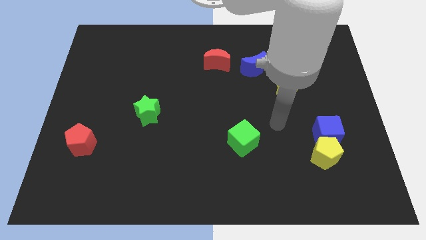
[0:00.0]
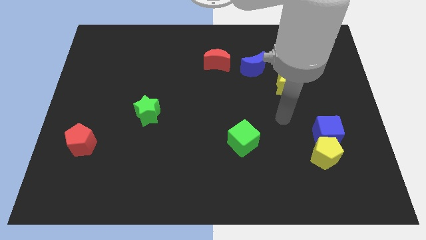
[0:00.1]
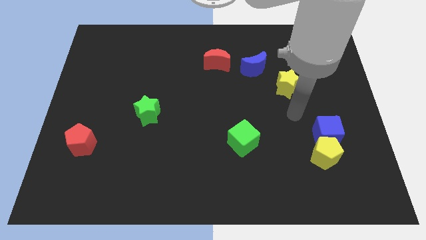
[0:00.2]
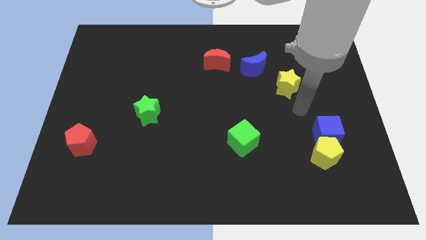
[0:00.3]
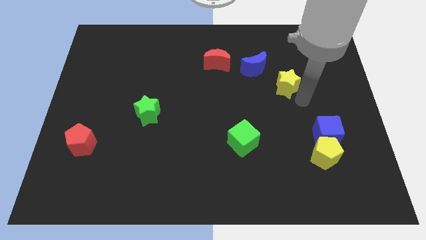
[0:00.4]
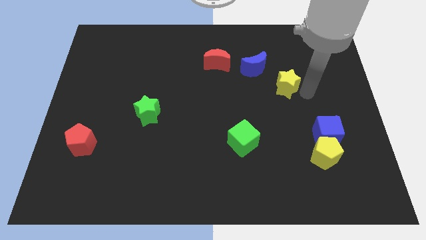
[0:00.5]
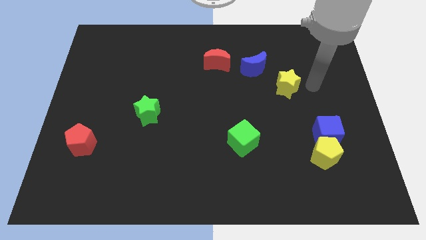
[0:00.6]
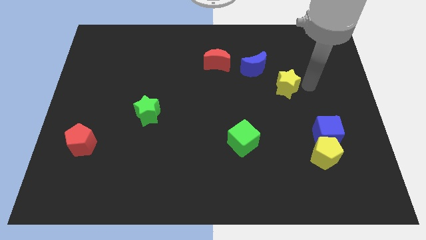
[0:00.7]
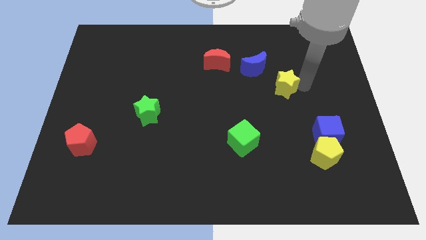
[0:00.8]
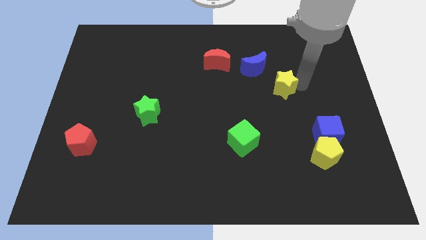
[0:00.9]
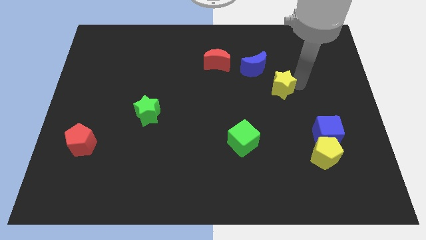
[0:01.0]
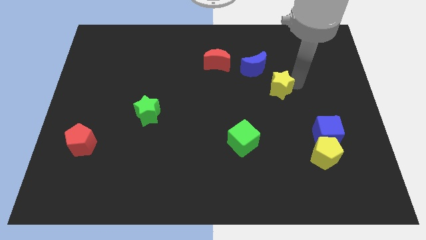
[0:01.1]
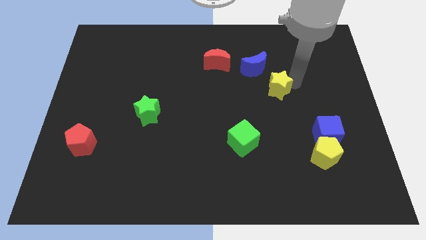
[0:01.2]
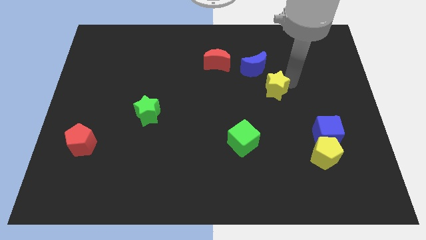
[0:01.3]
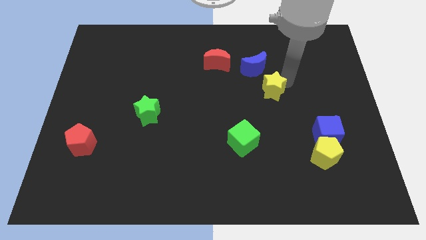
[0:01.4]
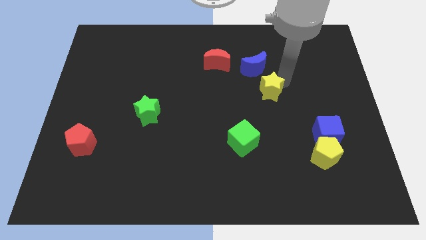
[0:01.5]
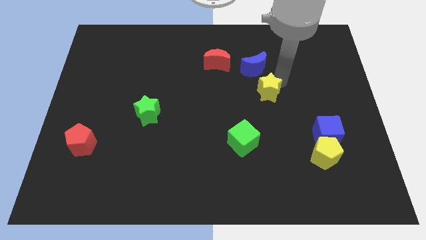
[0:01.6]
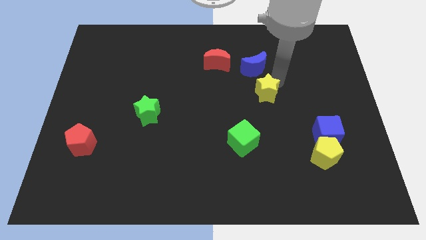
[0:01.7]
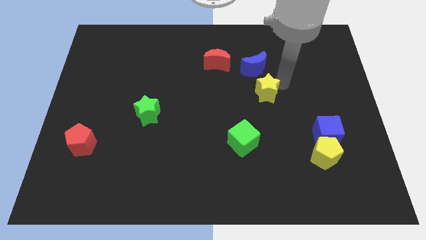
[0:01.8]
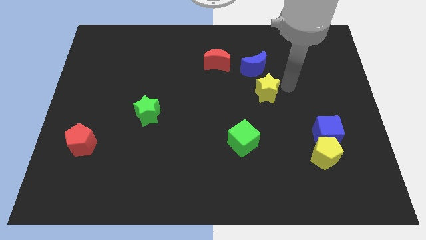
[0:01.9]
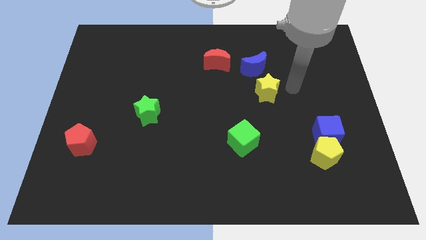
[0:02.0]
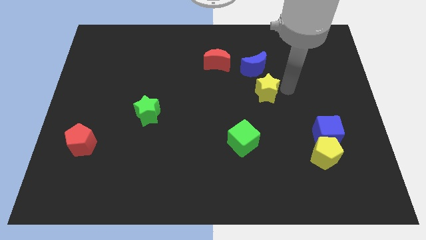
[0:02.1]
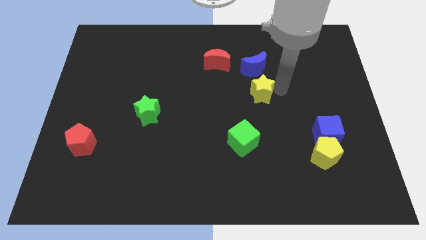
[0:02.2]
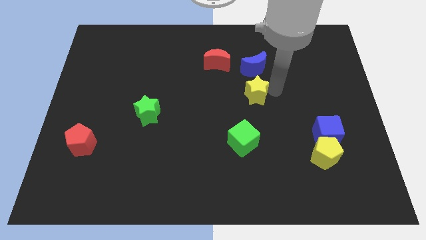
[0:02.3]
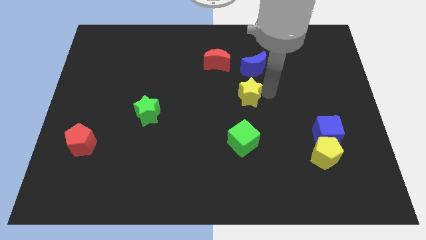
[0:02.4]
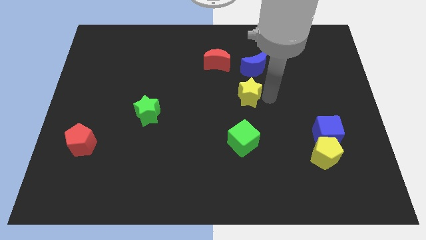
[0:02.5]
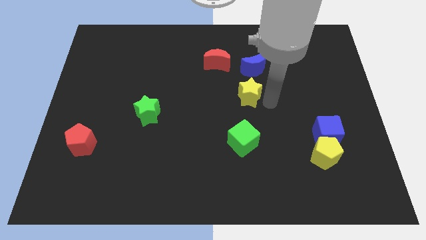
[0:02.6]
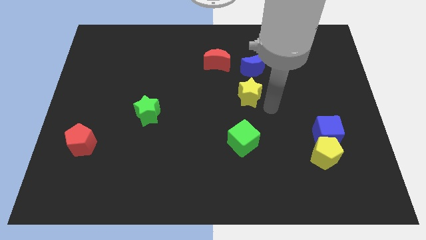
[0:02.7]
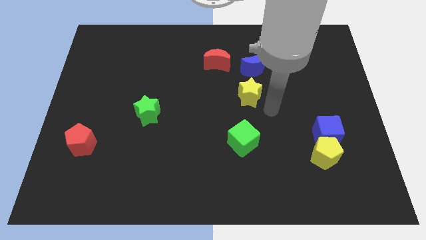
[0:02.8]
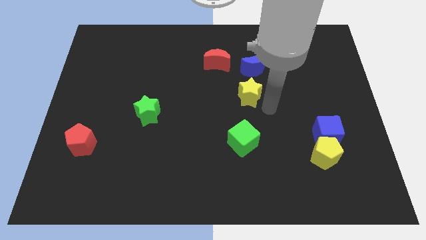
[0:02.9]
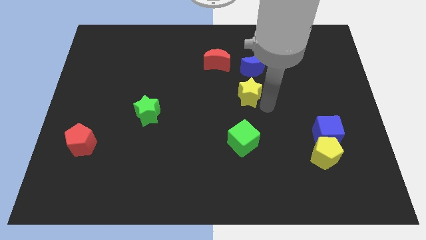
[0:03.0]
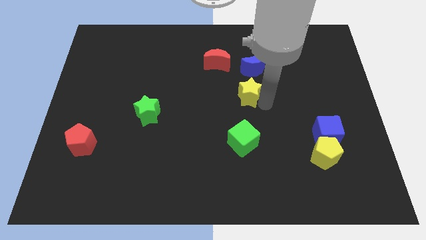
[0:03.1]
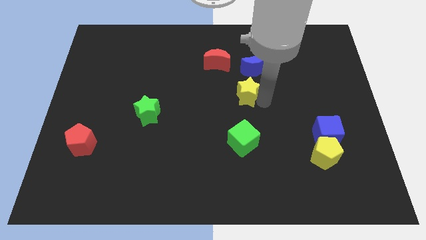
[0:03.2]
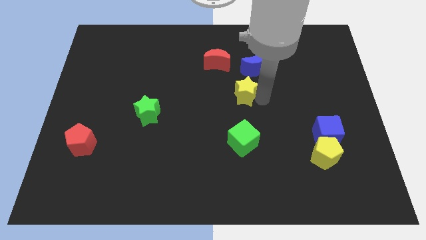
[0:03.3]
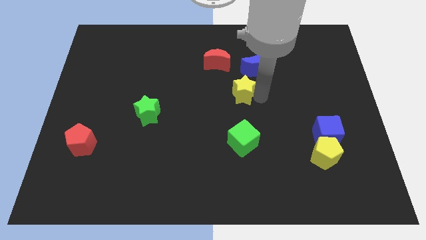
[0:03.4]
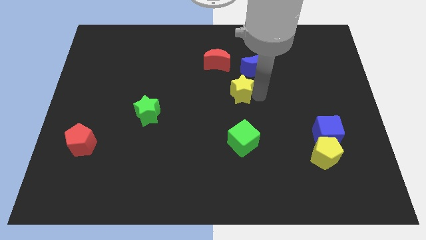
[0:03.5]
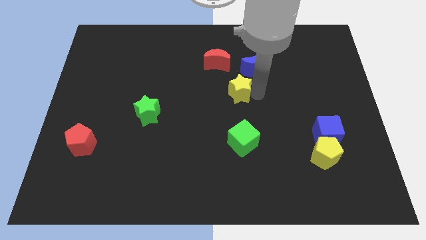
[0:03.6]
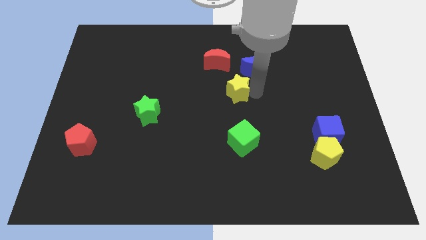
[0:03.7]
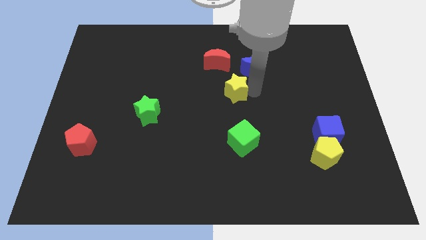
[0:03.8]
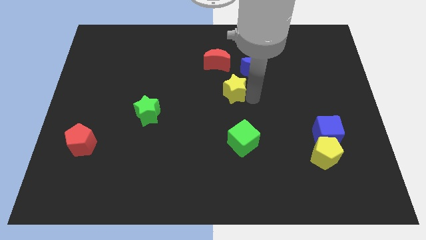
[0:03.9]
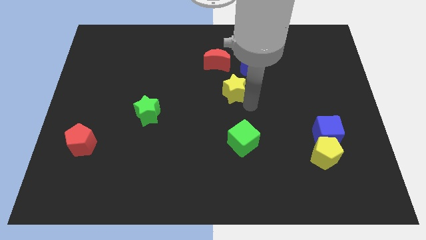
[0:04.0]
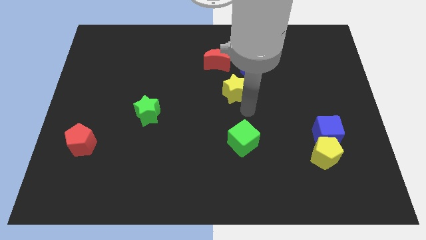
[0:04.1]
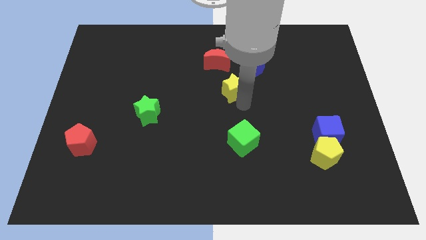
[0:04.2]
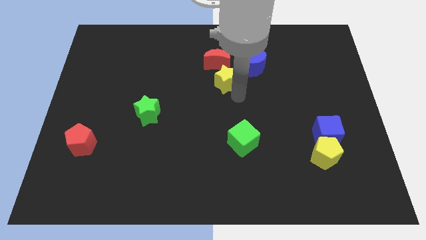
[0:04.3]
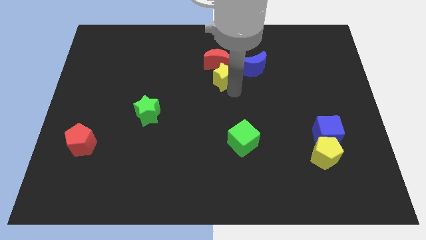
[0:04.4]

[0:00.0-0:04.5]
push the yellow star close to the red moon

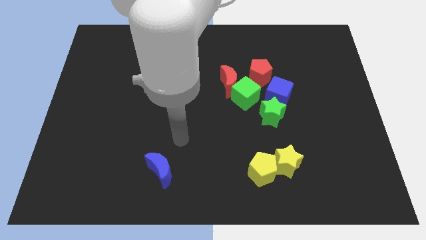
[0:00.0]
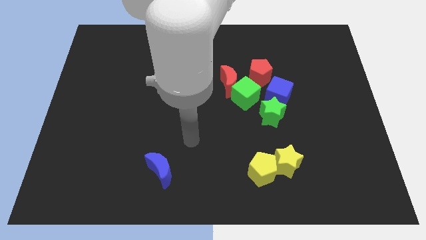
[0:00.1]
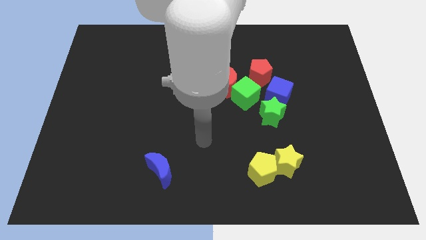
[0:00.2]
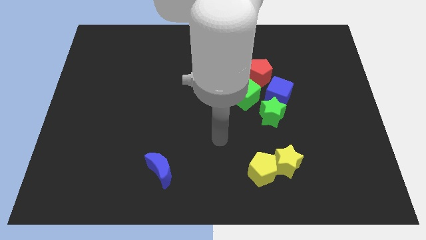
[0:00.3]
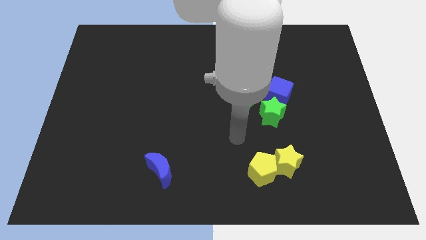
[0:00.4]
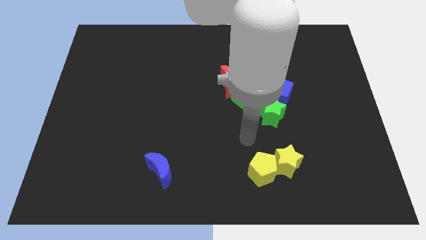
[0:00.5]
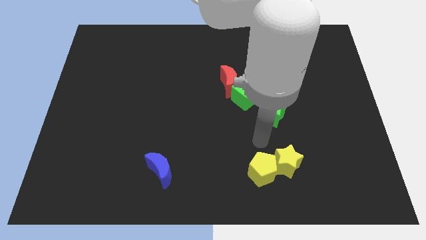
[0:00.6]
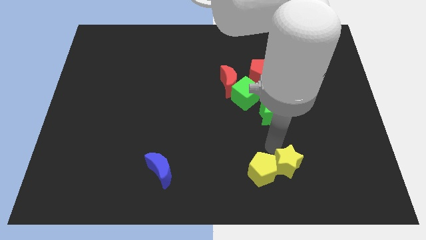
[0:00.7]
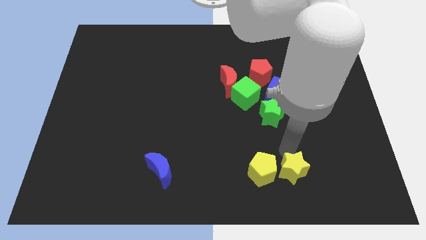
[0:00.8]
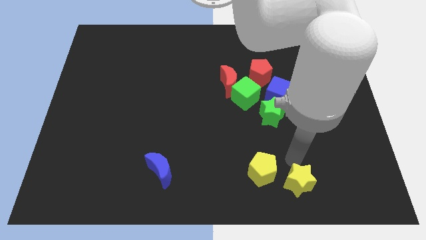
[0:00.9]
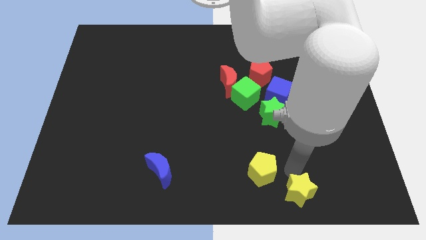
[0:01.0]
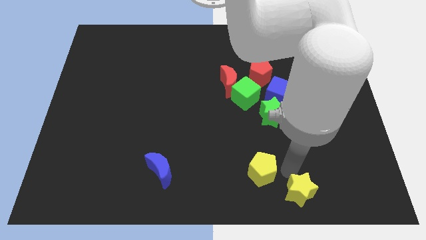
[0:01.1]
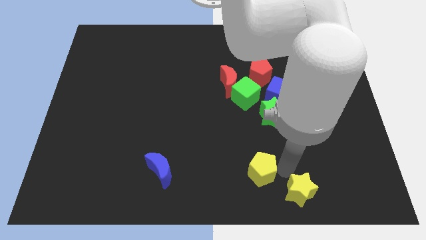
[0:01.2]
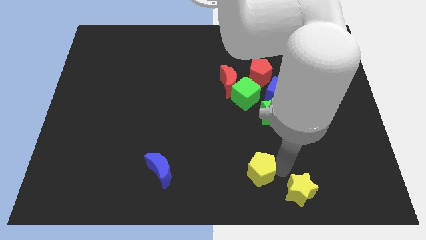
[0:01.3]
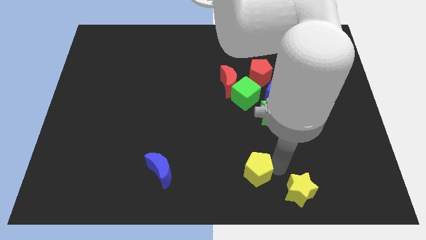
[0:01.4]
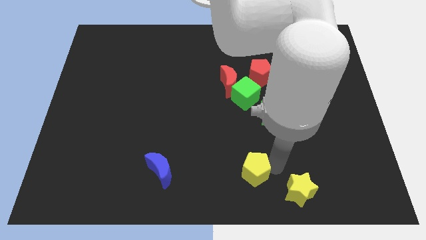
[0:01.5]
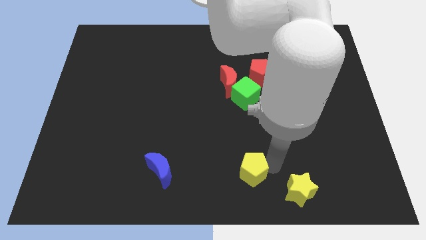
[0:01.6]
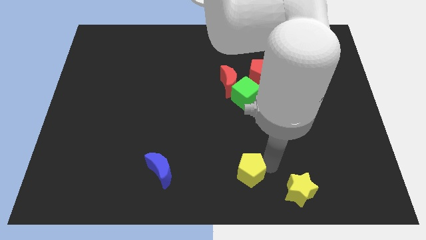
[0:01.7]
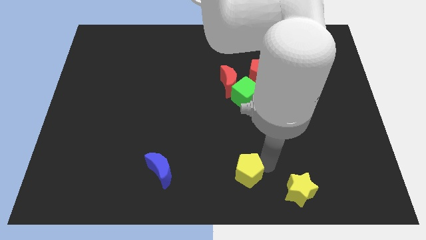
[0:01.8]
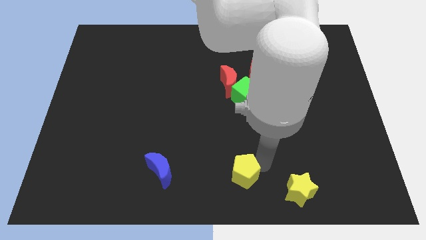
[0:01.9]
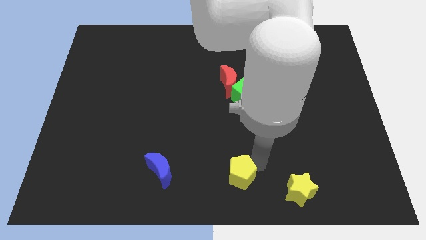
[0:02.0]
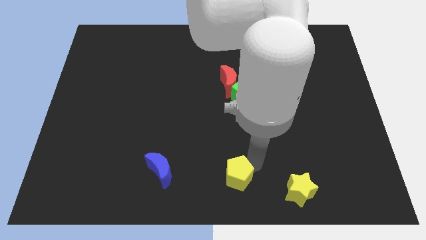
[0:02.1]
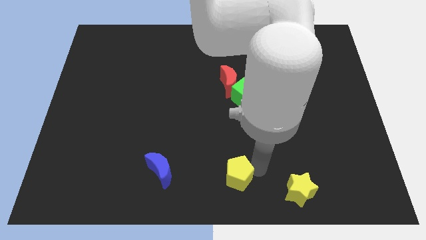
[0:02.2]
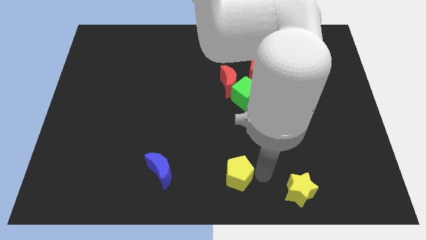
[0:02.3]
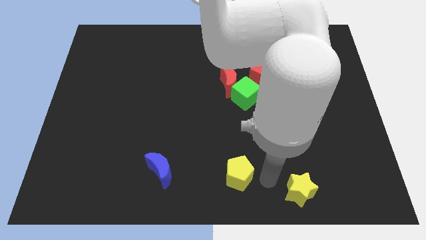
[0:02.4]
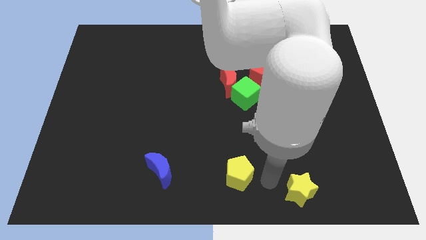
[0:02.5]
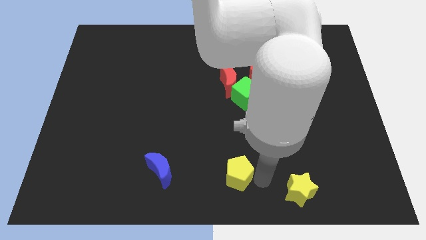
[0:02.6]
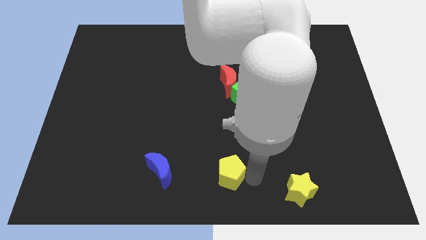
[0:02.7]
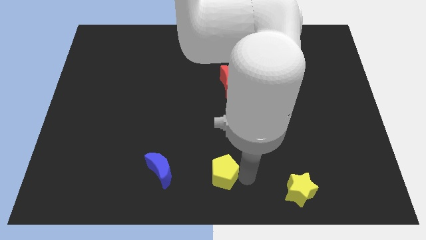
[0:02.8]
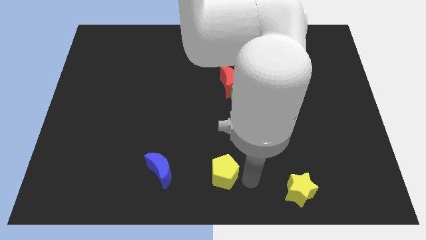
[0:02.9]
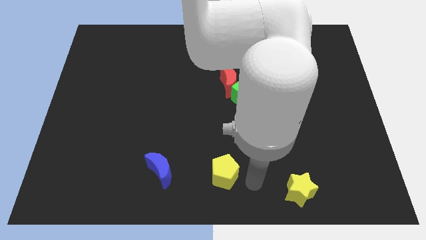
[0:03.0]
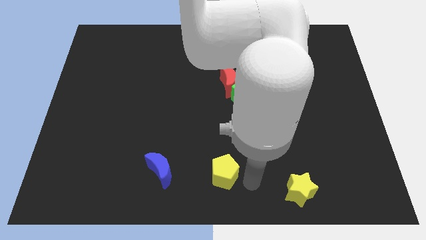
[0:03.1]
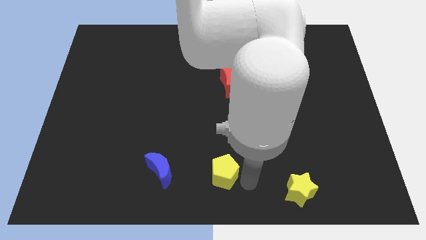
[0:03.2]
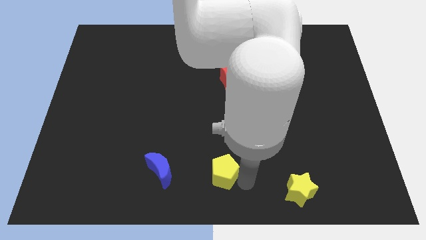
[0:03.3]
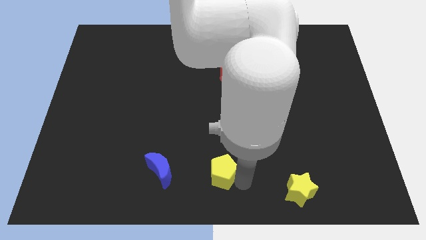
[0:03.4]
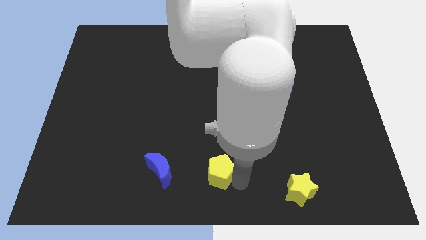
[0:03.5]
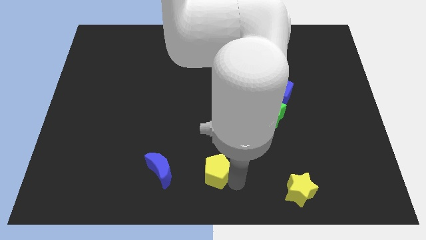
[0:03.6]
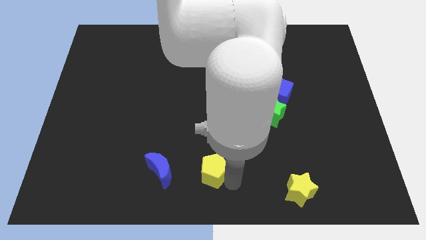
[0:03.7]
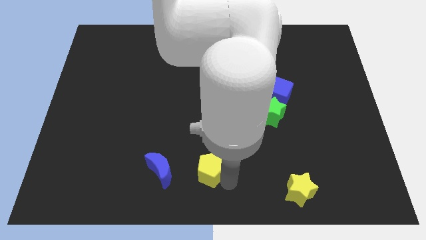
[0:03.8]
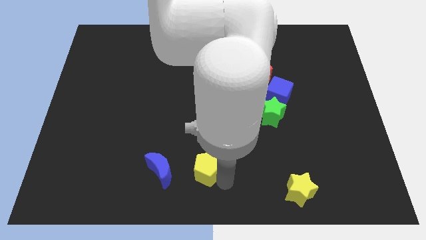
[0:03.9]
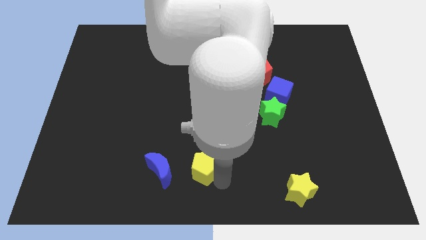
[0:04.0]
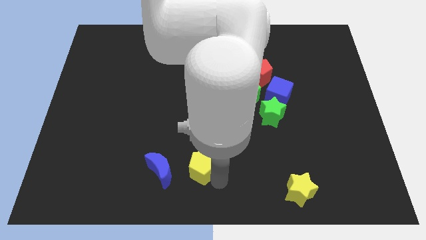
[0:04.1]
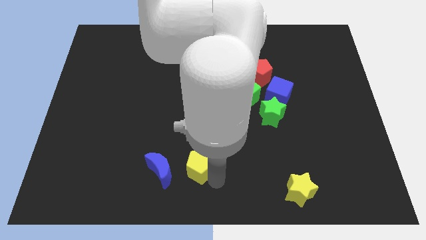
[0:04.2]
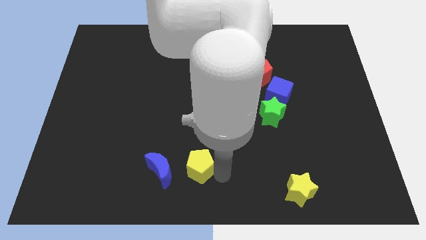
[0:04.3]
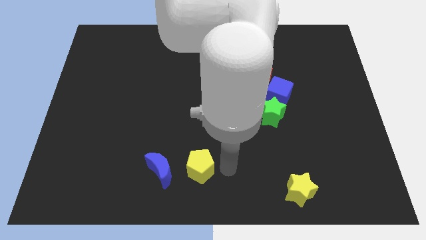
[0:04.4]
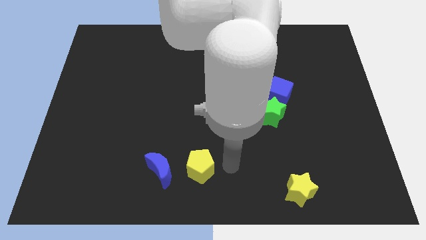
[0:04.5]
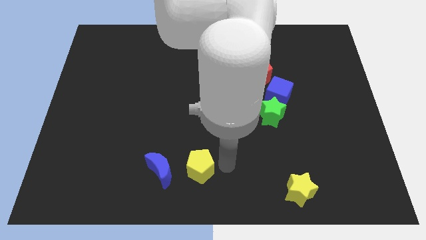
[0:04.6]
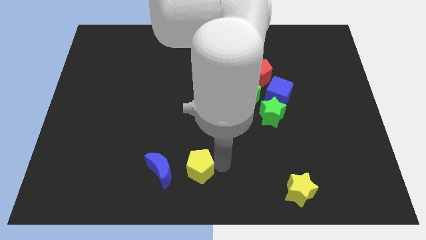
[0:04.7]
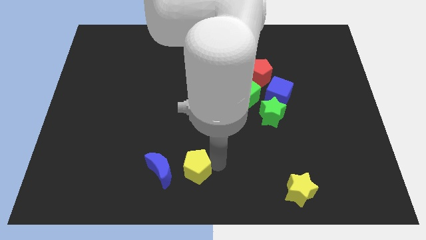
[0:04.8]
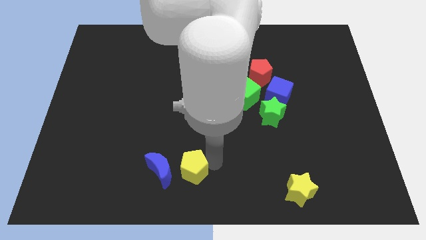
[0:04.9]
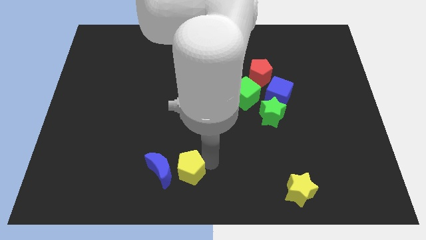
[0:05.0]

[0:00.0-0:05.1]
push the yellow pentagon next to the blue moon
